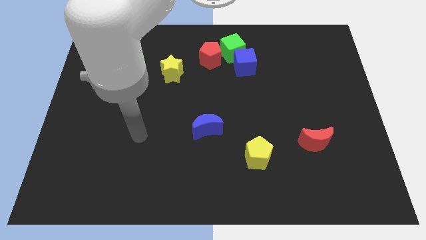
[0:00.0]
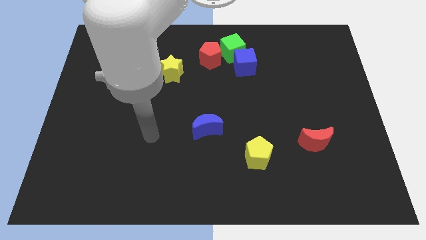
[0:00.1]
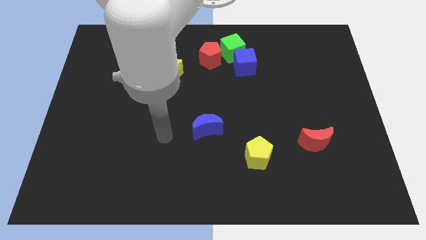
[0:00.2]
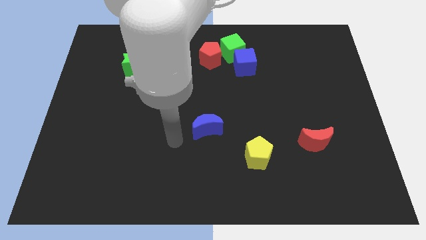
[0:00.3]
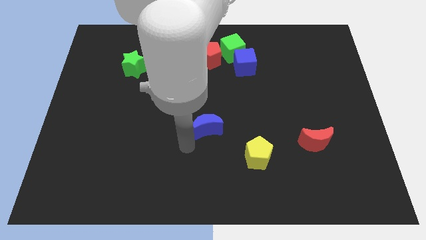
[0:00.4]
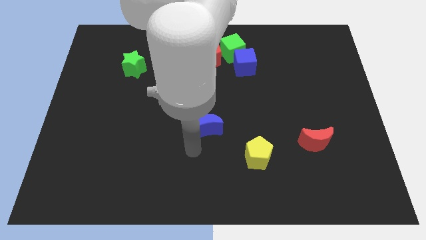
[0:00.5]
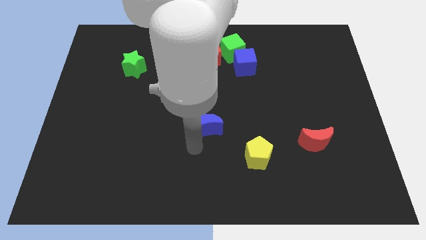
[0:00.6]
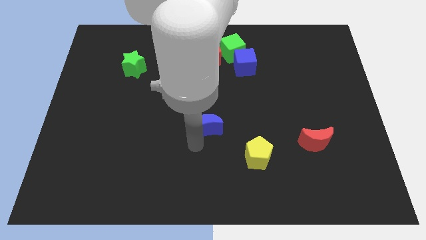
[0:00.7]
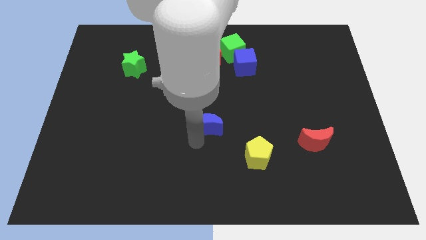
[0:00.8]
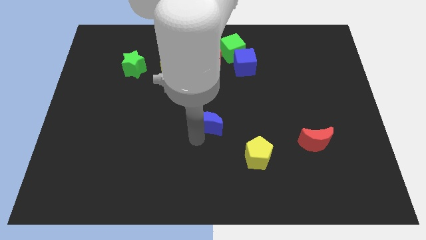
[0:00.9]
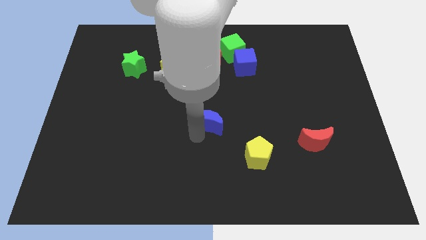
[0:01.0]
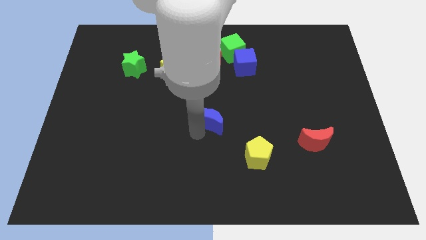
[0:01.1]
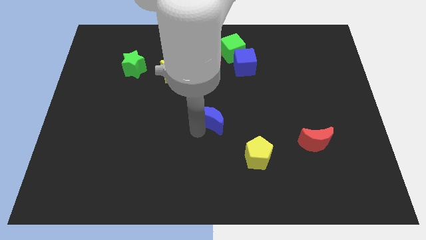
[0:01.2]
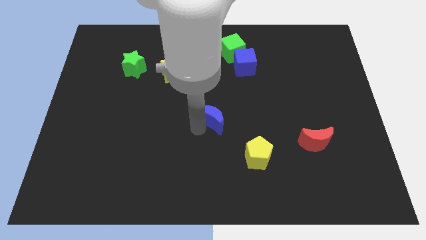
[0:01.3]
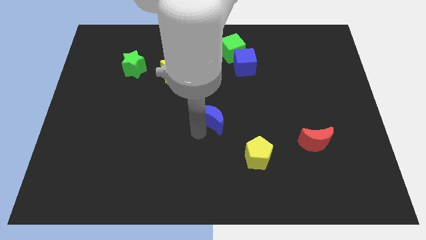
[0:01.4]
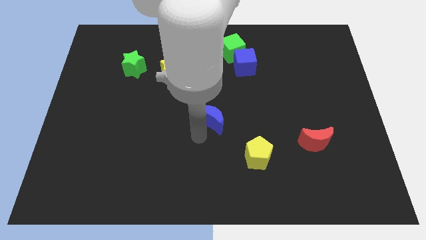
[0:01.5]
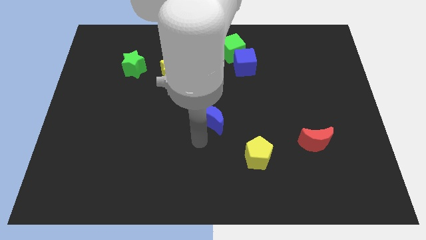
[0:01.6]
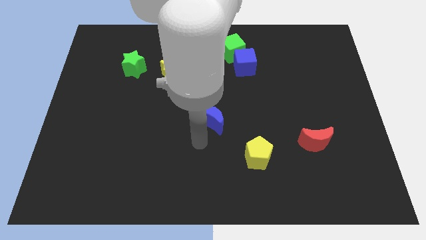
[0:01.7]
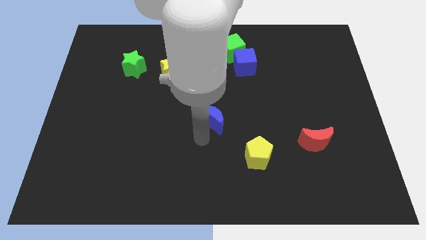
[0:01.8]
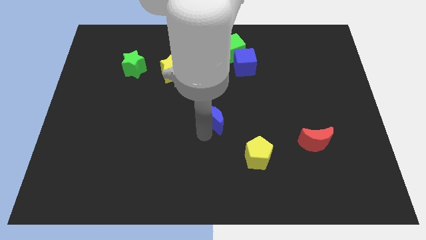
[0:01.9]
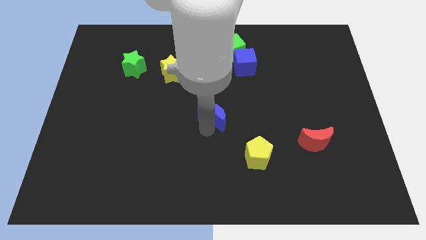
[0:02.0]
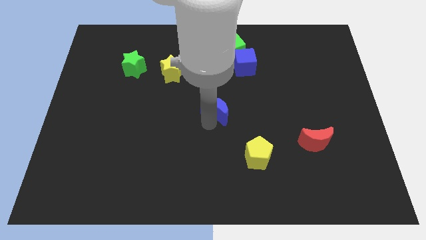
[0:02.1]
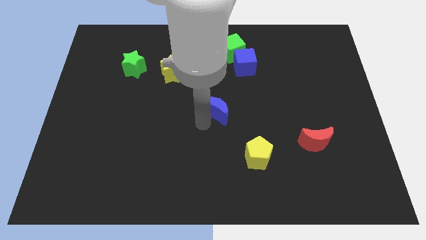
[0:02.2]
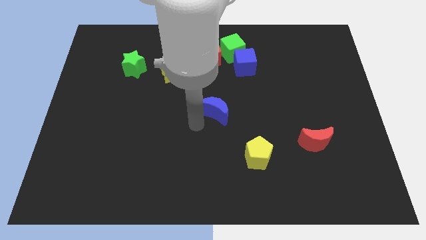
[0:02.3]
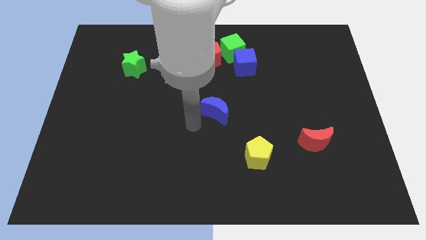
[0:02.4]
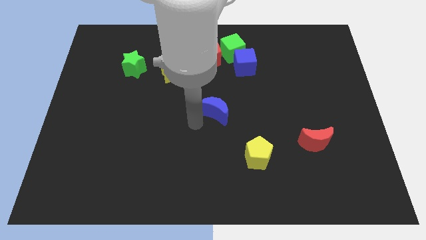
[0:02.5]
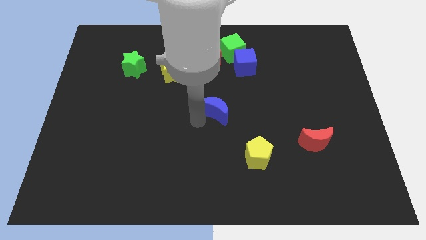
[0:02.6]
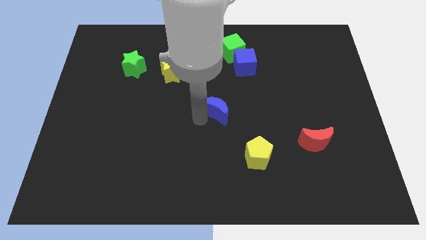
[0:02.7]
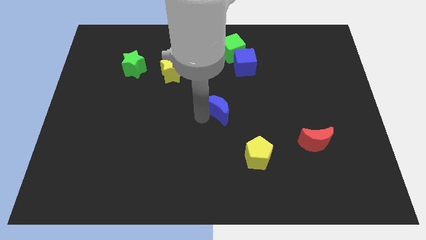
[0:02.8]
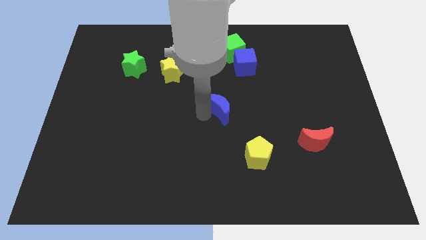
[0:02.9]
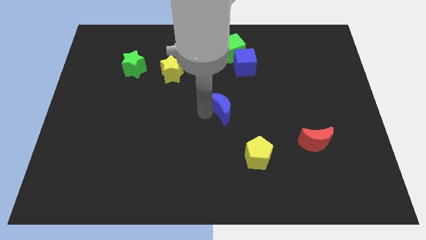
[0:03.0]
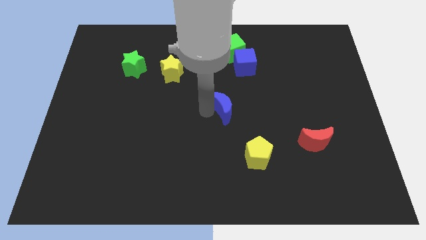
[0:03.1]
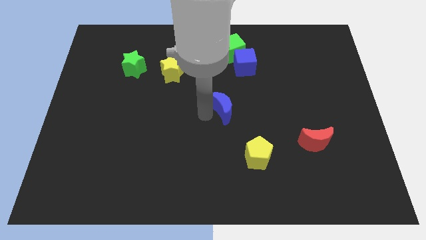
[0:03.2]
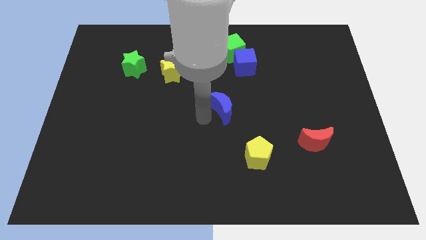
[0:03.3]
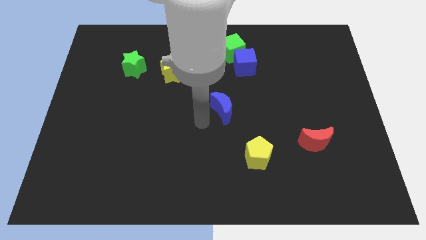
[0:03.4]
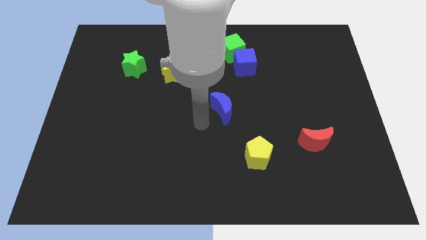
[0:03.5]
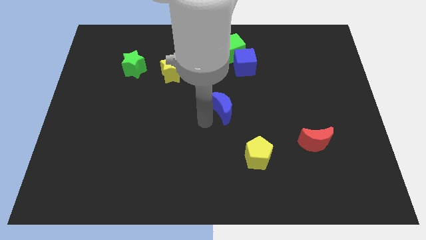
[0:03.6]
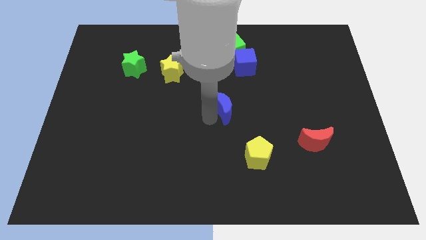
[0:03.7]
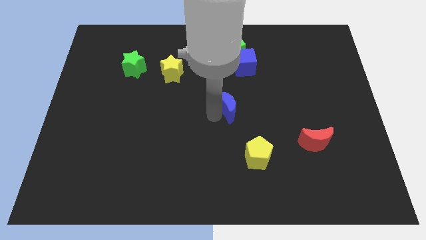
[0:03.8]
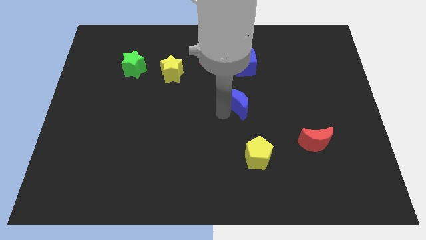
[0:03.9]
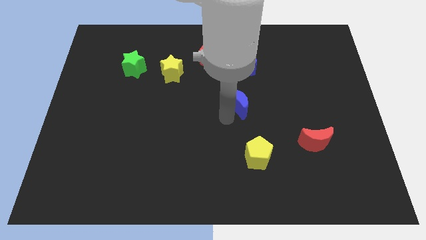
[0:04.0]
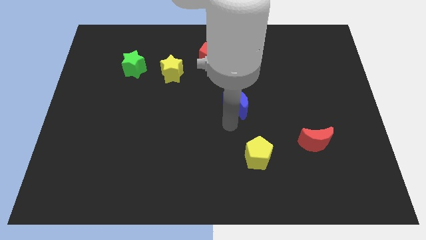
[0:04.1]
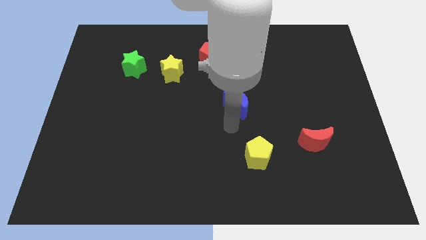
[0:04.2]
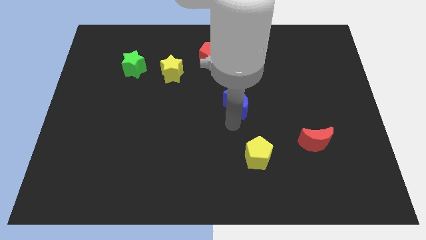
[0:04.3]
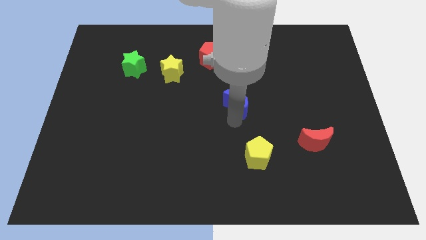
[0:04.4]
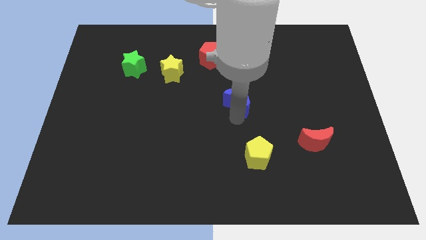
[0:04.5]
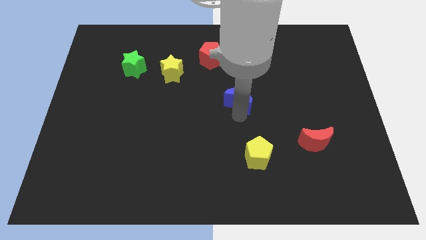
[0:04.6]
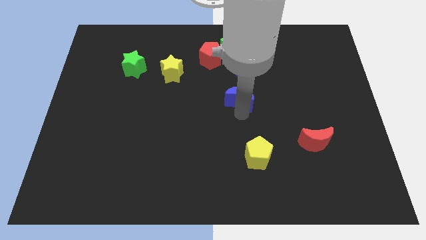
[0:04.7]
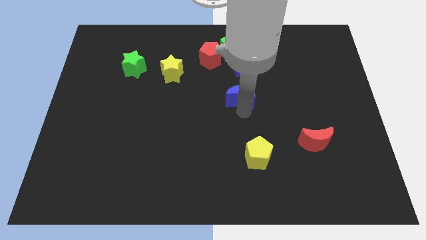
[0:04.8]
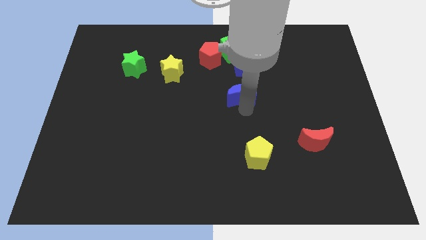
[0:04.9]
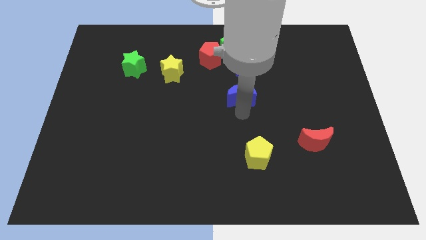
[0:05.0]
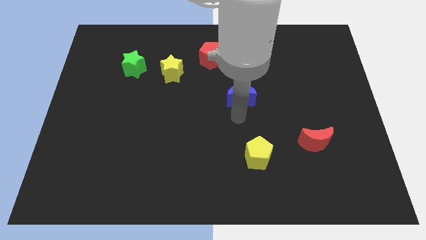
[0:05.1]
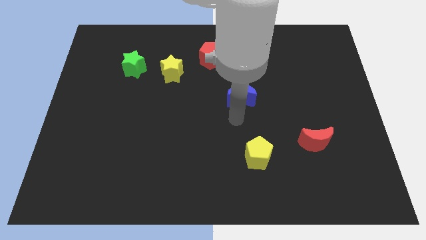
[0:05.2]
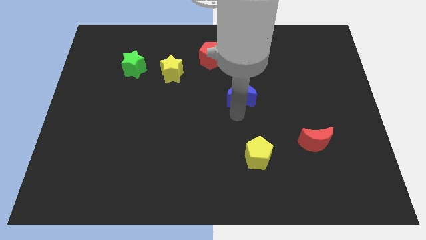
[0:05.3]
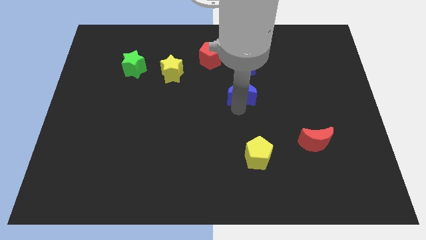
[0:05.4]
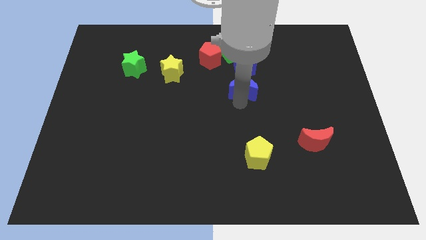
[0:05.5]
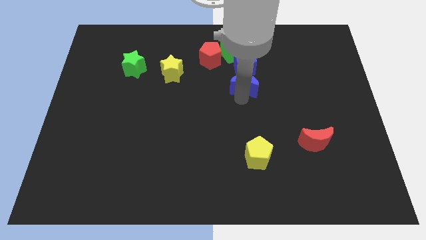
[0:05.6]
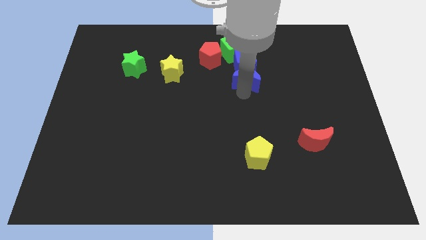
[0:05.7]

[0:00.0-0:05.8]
slide the blue moon towards the blue cube

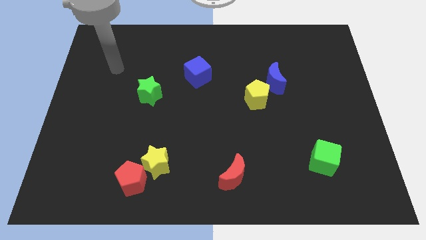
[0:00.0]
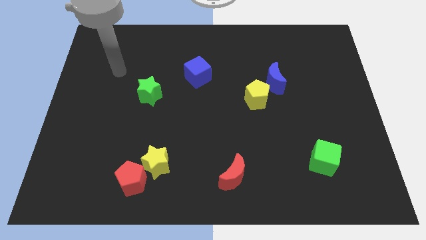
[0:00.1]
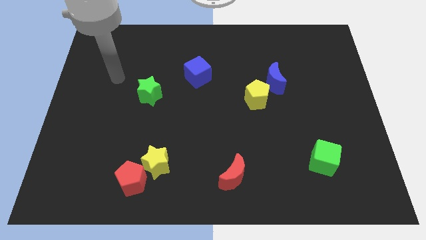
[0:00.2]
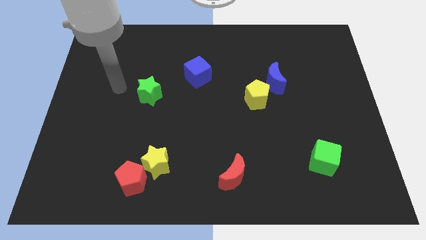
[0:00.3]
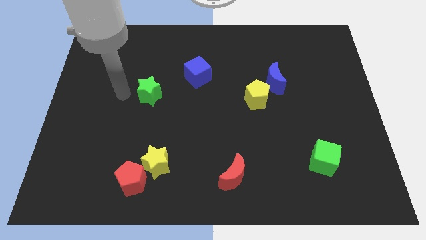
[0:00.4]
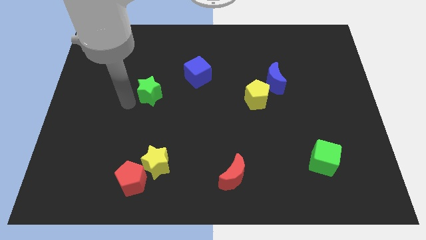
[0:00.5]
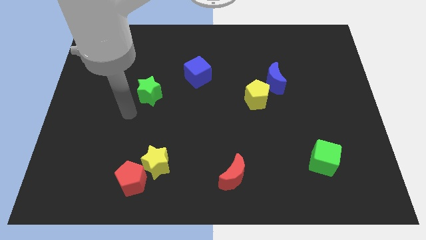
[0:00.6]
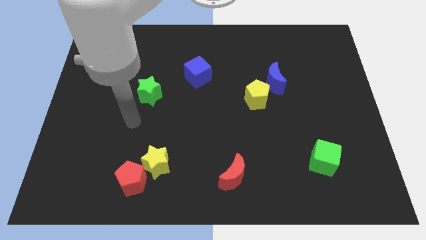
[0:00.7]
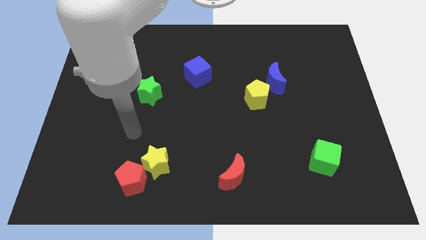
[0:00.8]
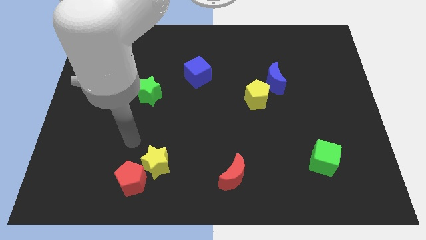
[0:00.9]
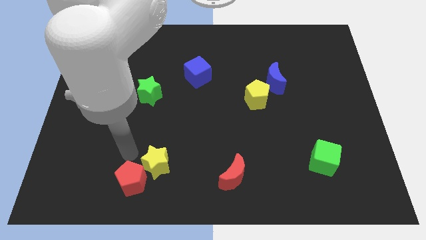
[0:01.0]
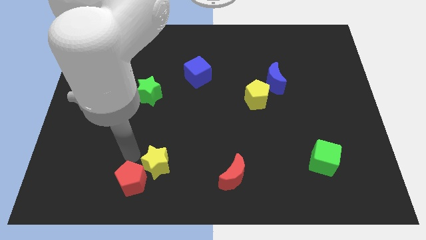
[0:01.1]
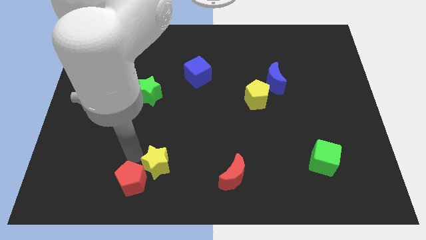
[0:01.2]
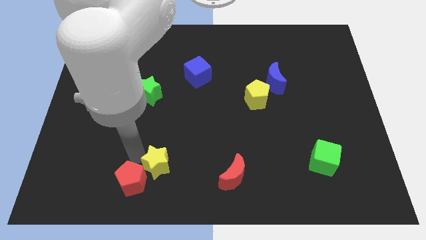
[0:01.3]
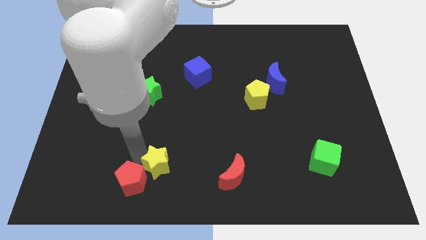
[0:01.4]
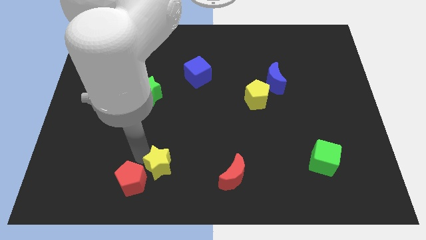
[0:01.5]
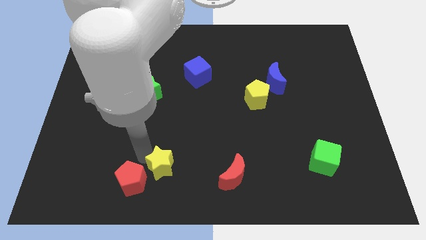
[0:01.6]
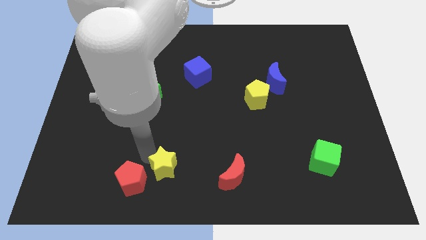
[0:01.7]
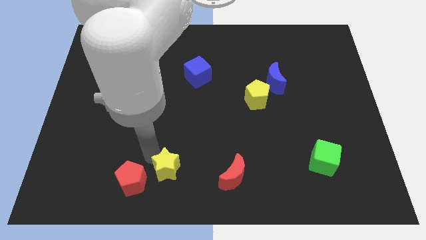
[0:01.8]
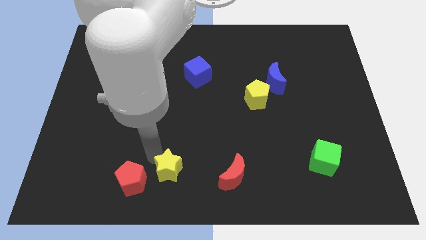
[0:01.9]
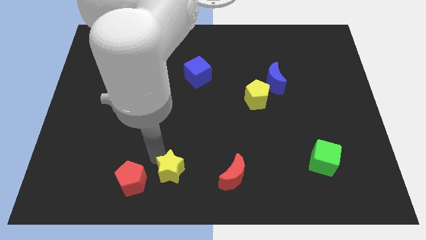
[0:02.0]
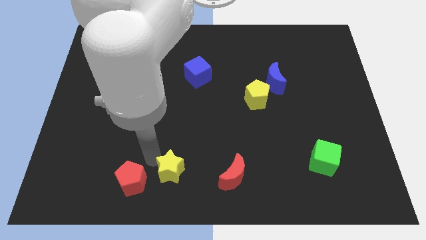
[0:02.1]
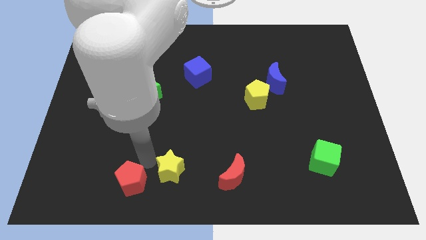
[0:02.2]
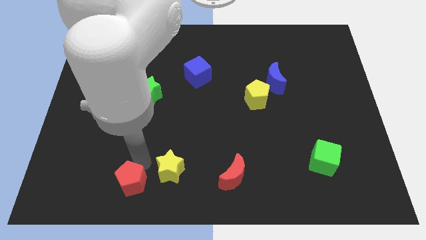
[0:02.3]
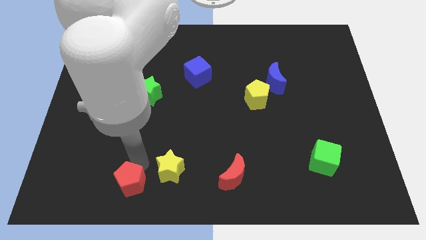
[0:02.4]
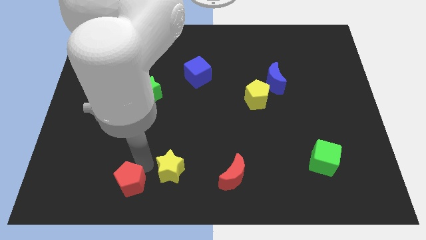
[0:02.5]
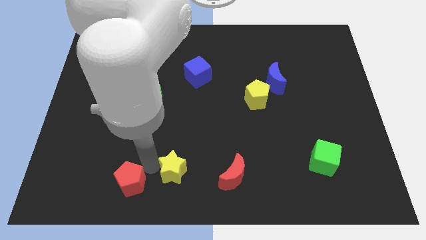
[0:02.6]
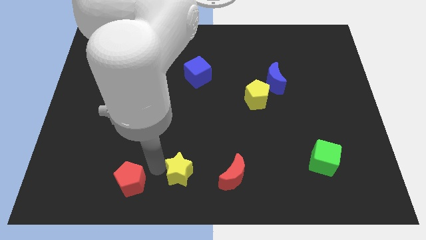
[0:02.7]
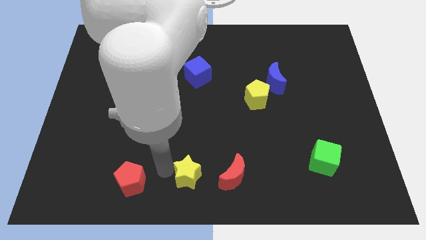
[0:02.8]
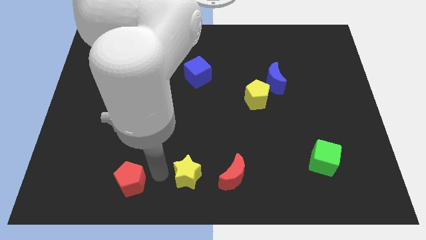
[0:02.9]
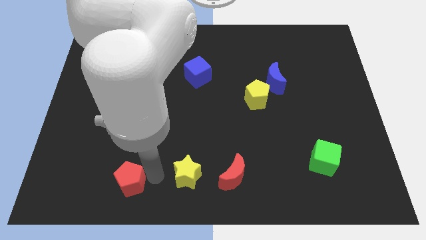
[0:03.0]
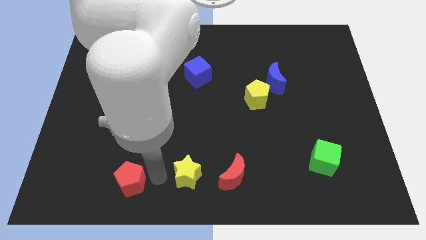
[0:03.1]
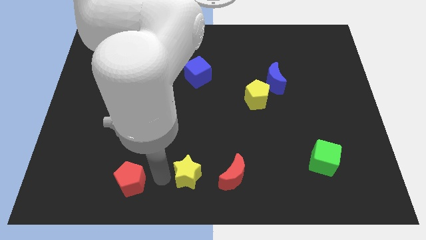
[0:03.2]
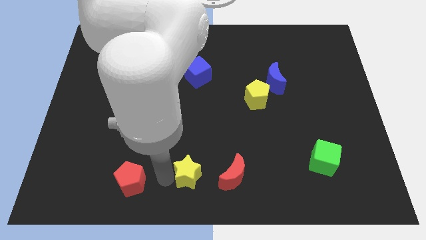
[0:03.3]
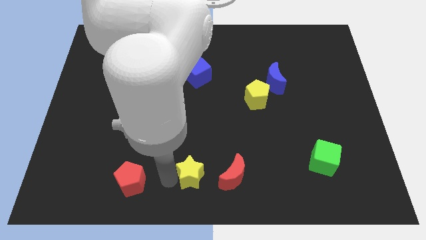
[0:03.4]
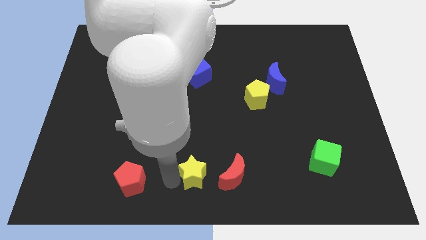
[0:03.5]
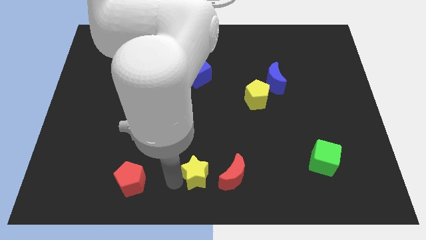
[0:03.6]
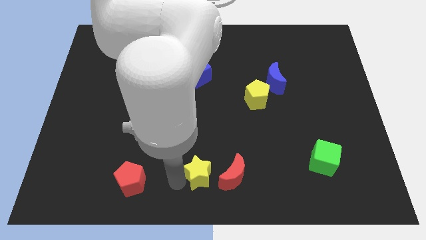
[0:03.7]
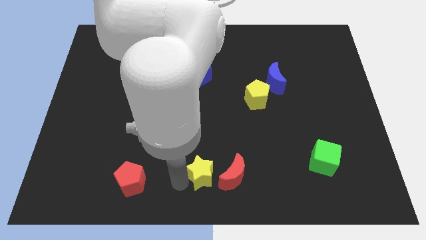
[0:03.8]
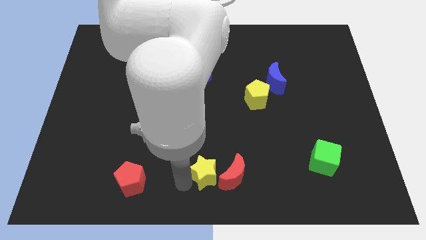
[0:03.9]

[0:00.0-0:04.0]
put the yellow star towards the red moon
